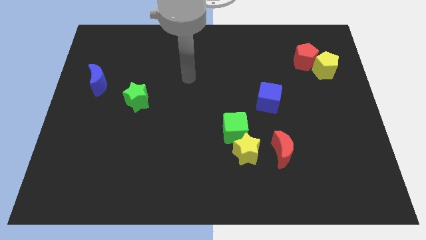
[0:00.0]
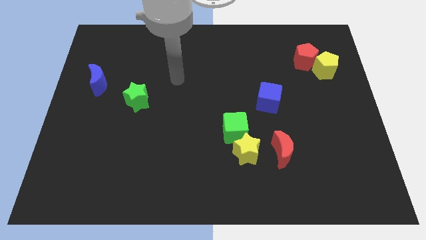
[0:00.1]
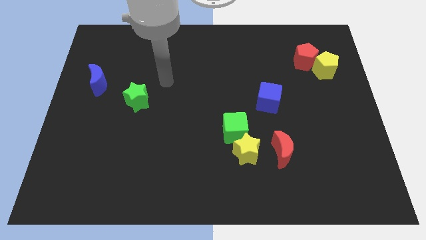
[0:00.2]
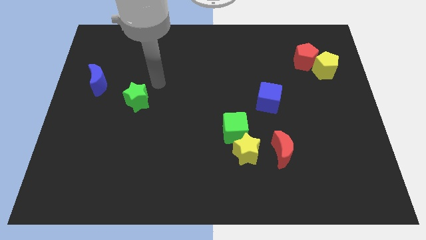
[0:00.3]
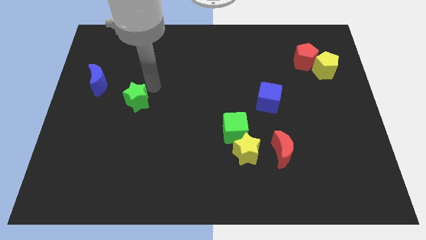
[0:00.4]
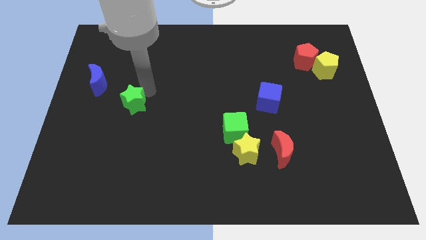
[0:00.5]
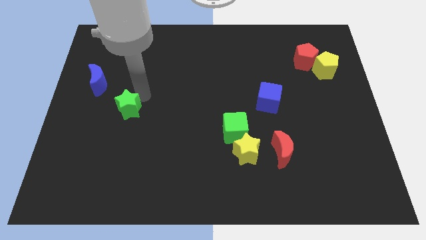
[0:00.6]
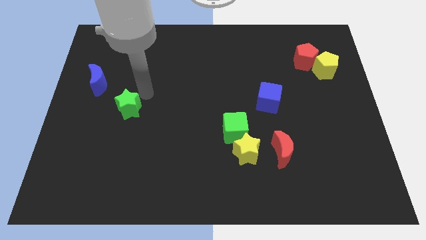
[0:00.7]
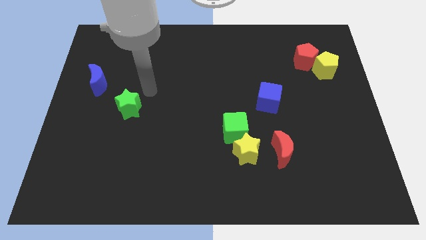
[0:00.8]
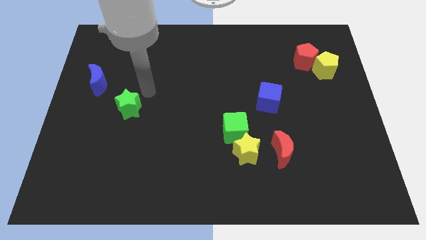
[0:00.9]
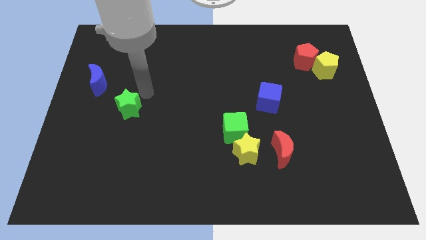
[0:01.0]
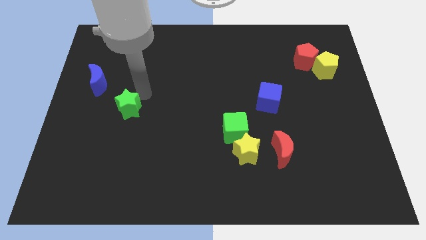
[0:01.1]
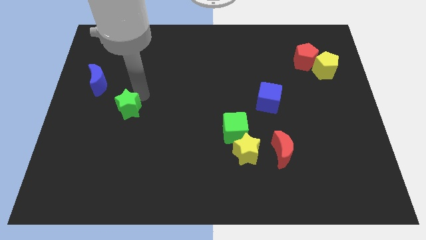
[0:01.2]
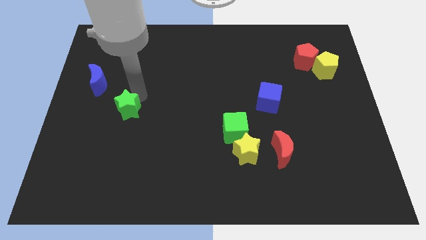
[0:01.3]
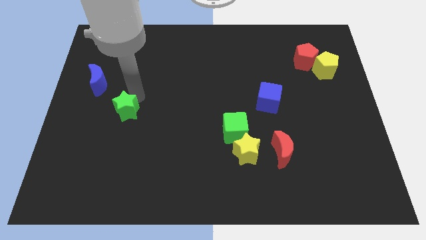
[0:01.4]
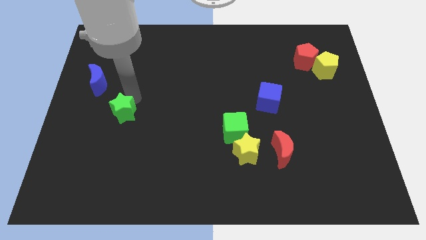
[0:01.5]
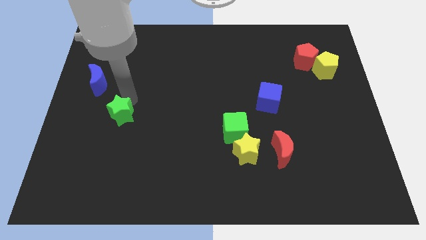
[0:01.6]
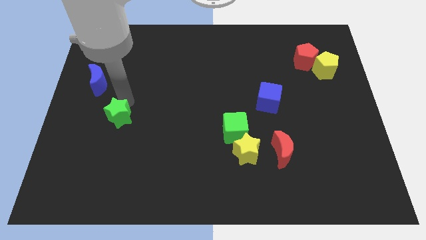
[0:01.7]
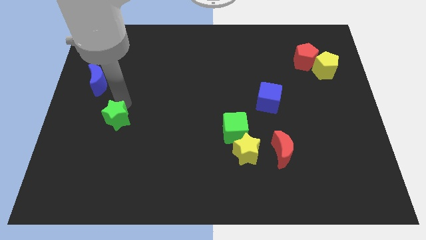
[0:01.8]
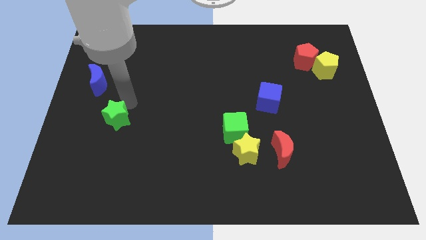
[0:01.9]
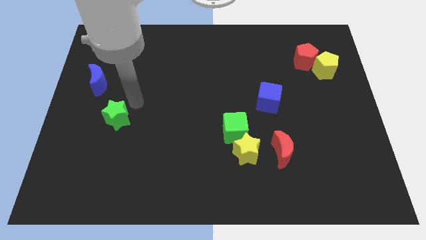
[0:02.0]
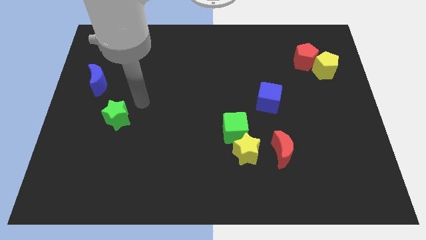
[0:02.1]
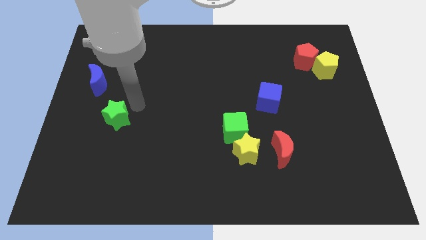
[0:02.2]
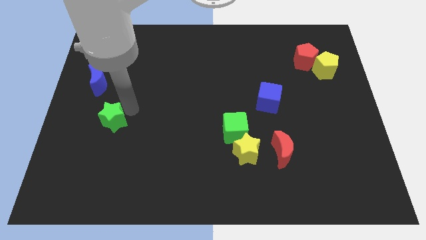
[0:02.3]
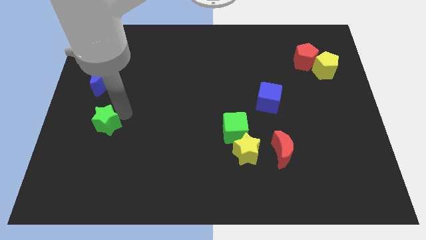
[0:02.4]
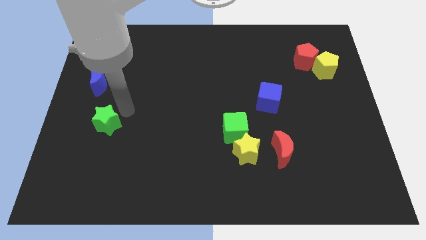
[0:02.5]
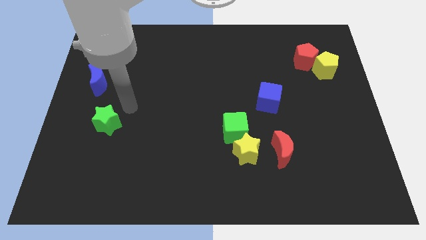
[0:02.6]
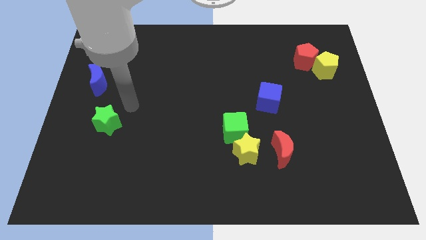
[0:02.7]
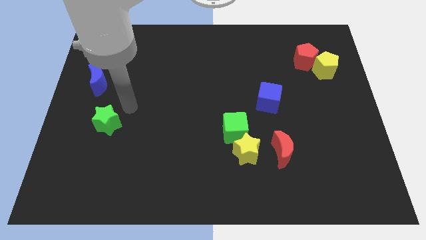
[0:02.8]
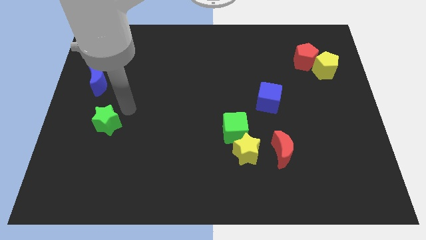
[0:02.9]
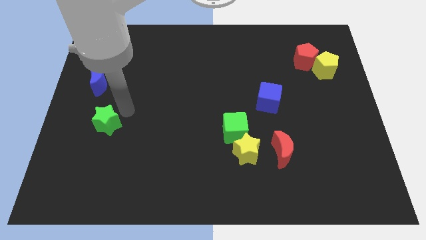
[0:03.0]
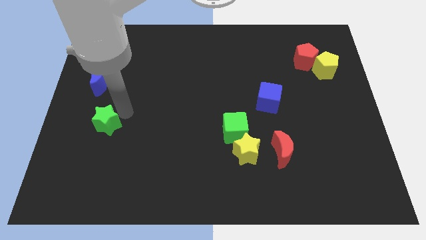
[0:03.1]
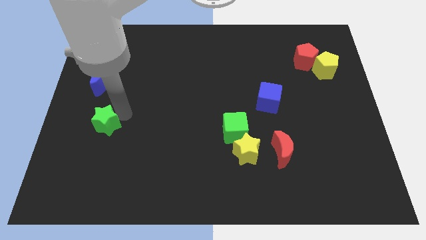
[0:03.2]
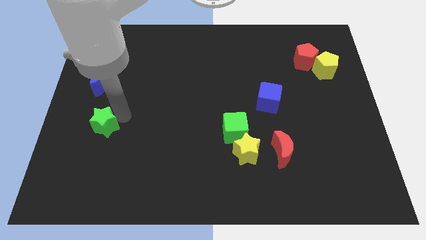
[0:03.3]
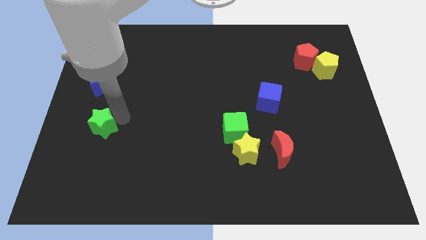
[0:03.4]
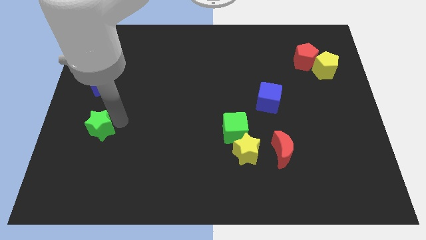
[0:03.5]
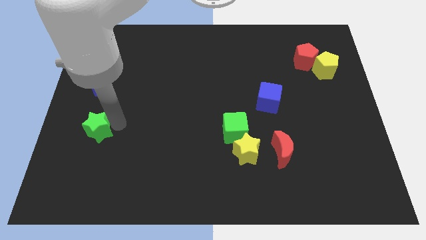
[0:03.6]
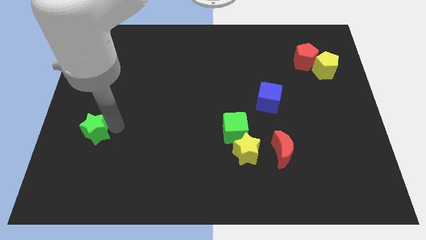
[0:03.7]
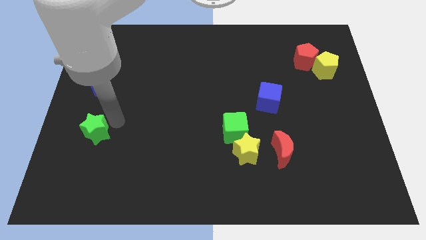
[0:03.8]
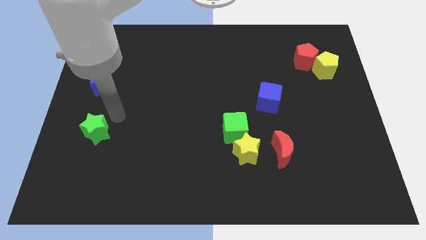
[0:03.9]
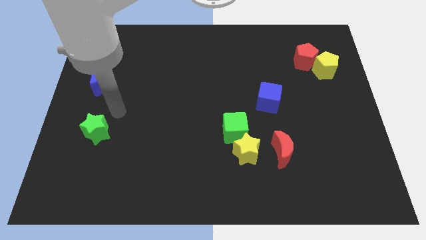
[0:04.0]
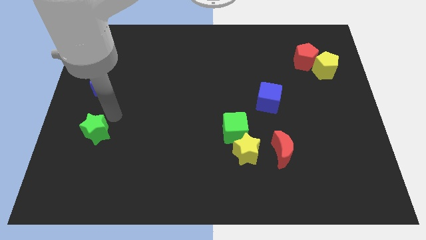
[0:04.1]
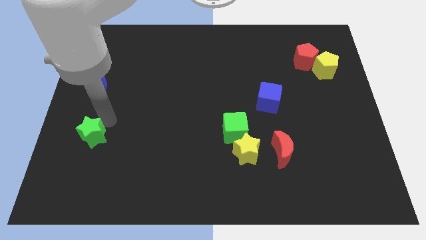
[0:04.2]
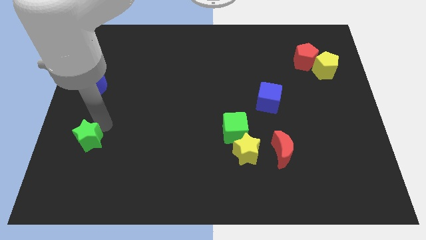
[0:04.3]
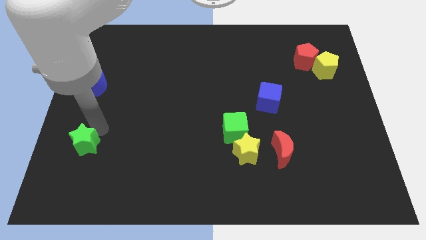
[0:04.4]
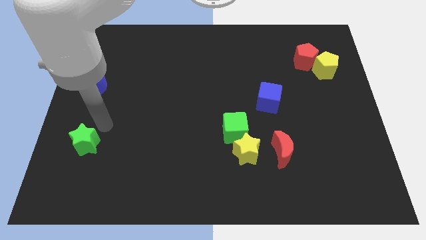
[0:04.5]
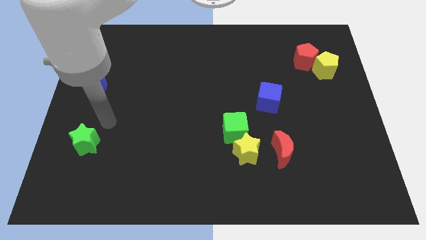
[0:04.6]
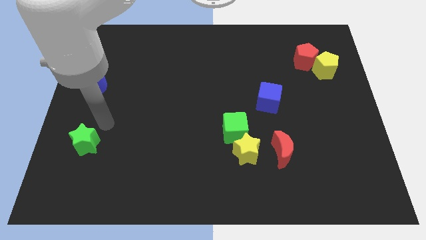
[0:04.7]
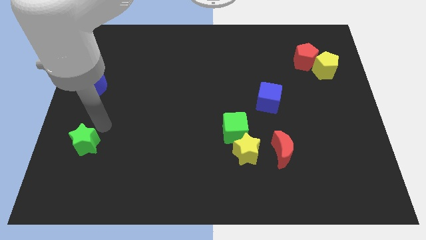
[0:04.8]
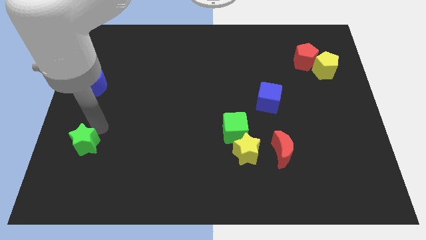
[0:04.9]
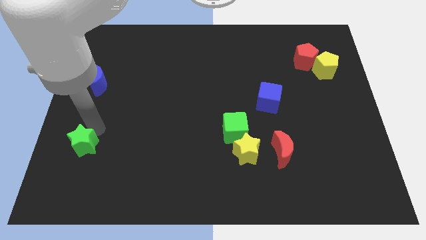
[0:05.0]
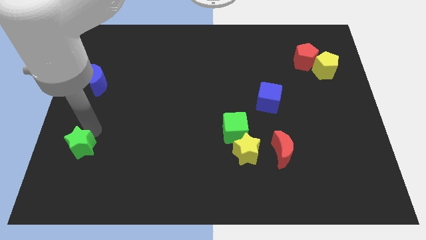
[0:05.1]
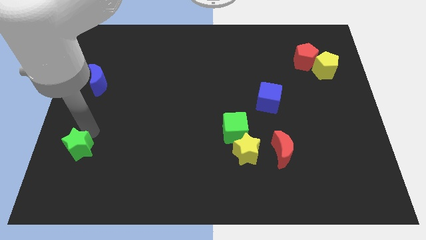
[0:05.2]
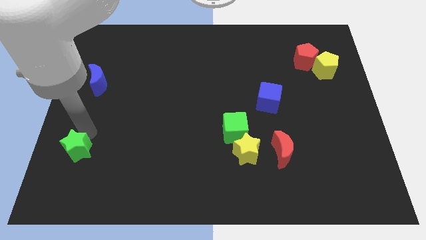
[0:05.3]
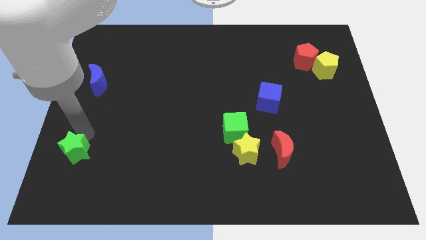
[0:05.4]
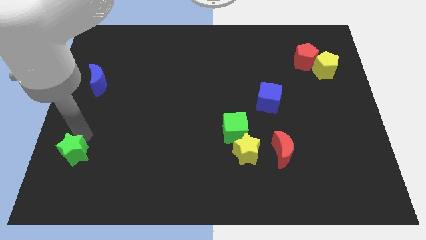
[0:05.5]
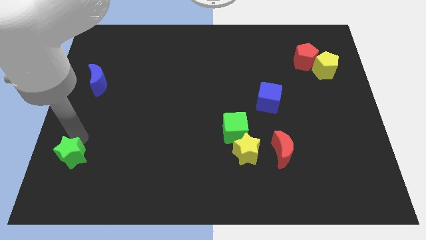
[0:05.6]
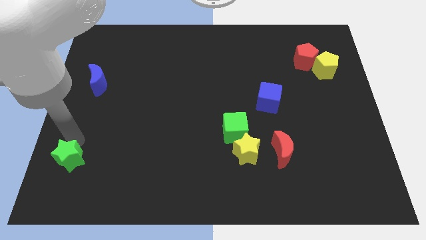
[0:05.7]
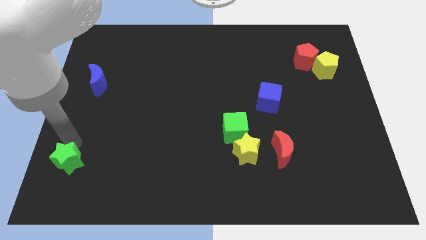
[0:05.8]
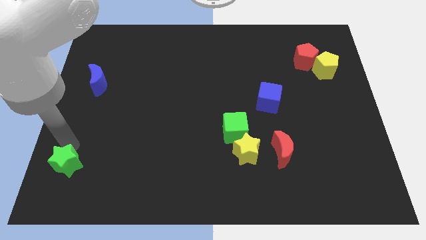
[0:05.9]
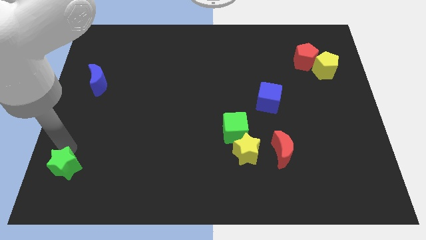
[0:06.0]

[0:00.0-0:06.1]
put the green star to the bottom left corner
